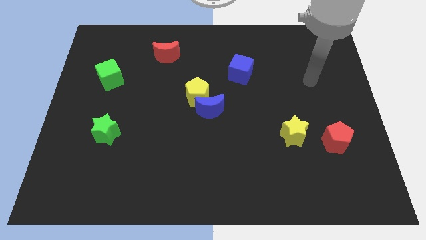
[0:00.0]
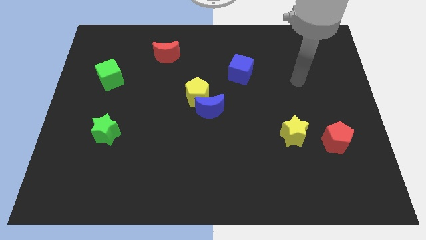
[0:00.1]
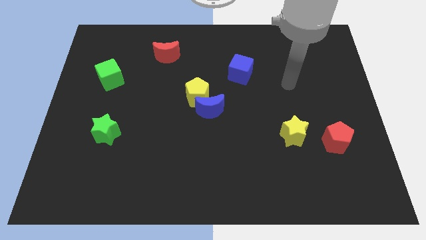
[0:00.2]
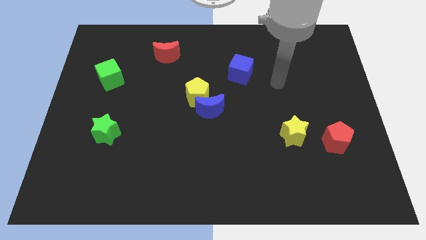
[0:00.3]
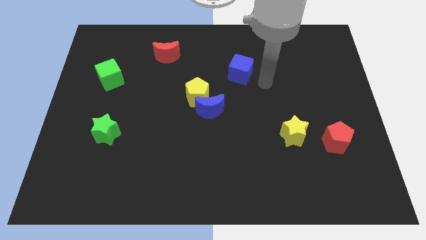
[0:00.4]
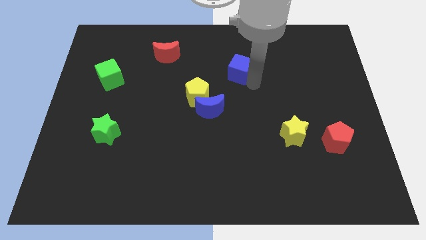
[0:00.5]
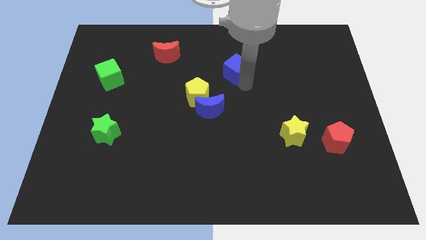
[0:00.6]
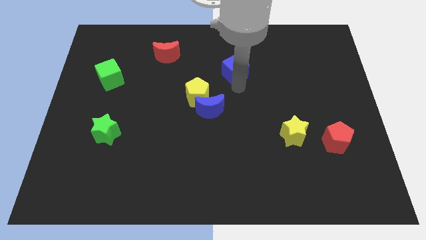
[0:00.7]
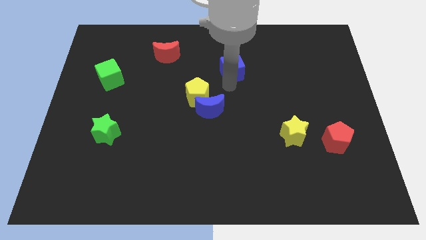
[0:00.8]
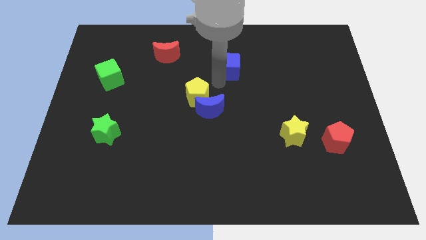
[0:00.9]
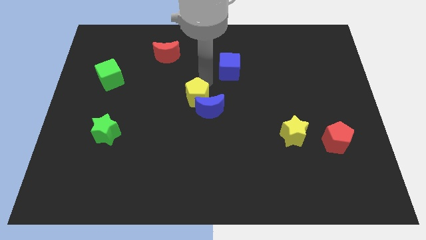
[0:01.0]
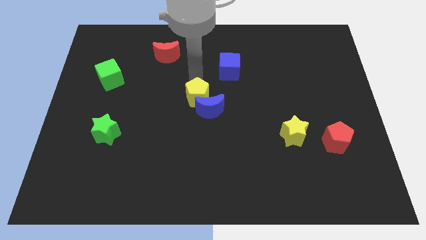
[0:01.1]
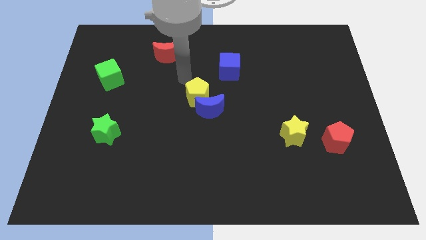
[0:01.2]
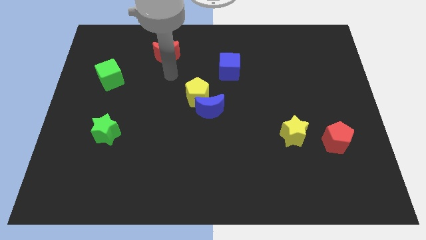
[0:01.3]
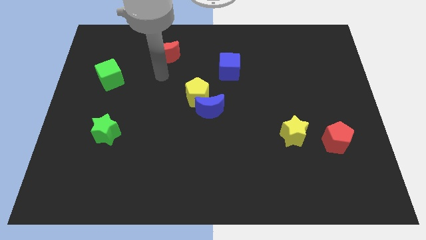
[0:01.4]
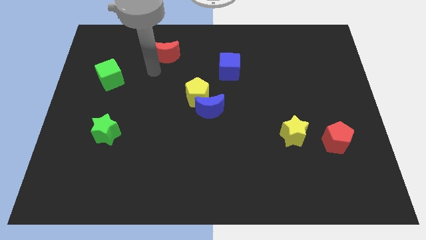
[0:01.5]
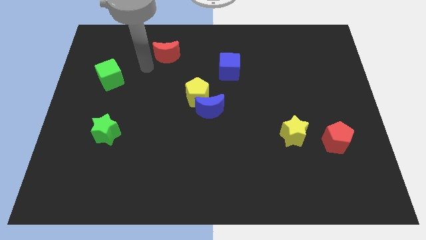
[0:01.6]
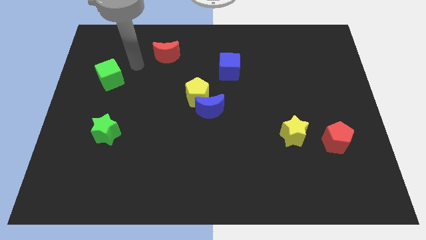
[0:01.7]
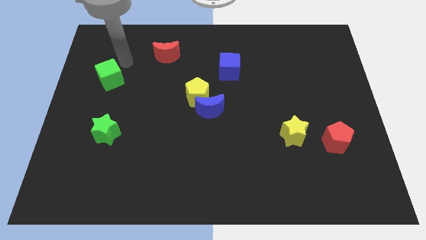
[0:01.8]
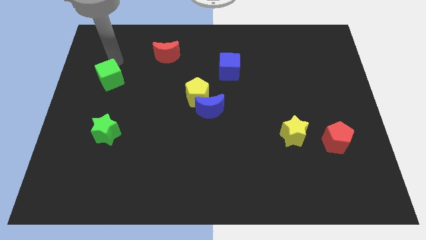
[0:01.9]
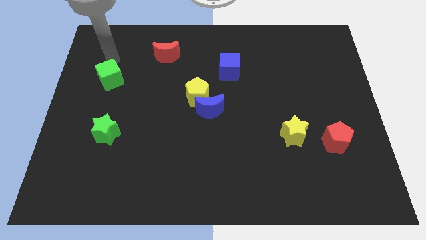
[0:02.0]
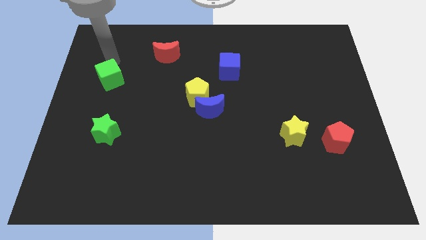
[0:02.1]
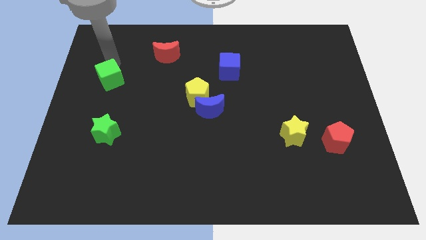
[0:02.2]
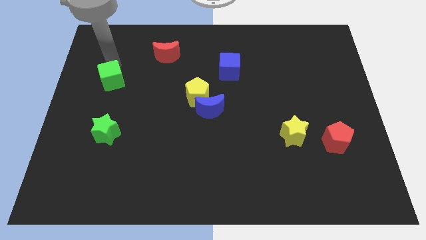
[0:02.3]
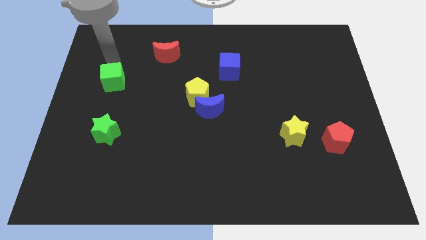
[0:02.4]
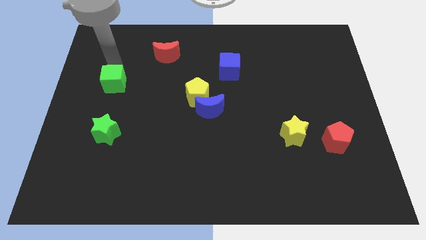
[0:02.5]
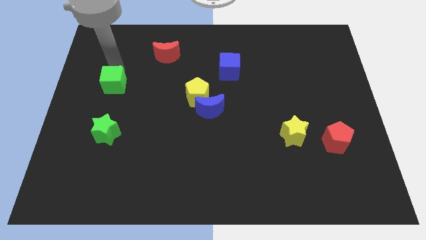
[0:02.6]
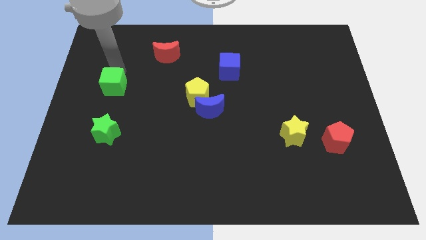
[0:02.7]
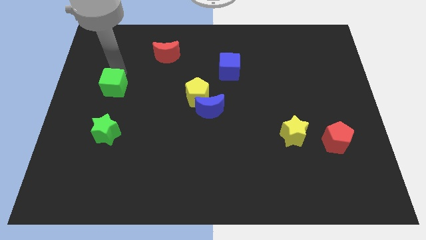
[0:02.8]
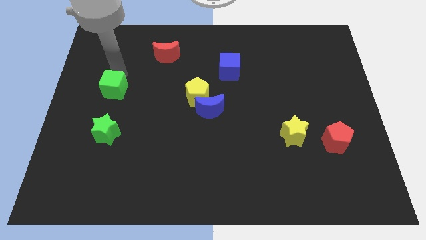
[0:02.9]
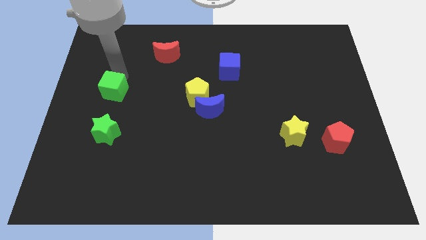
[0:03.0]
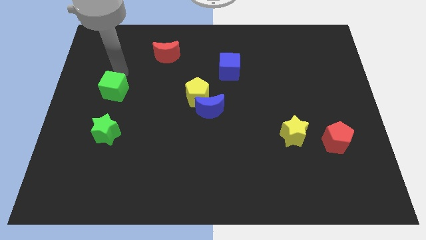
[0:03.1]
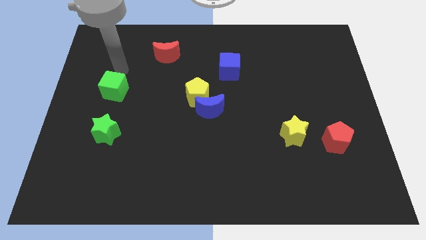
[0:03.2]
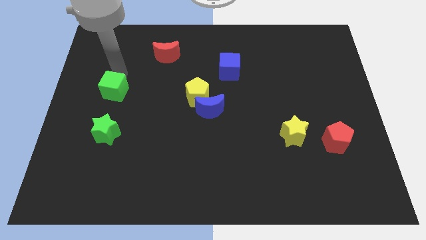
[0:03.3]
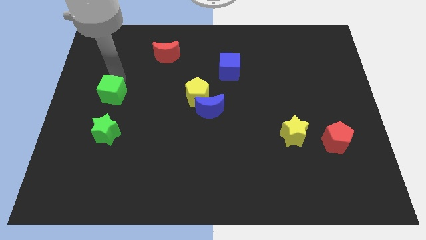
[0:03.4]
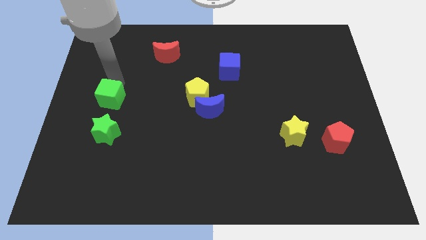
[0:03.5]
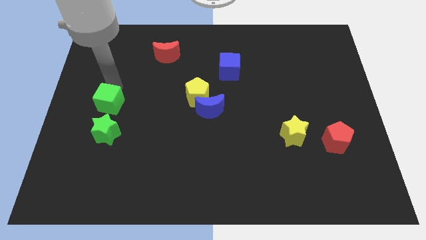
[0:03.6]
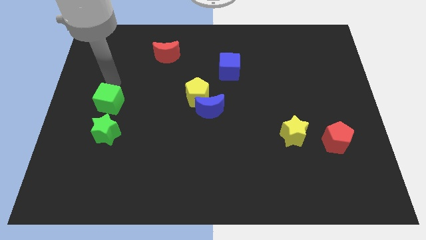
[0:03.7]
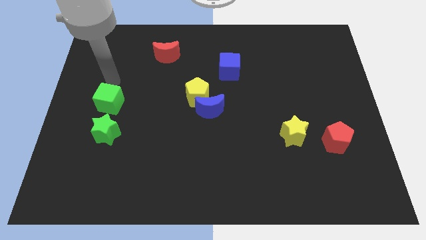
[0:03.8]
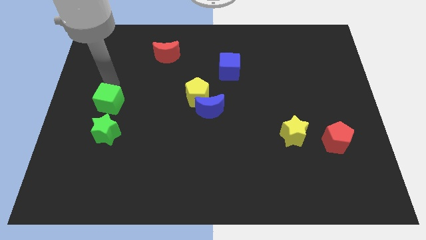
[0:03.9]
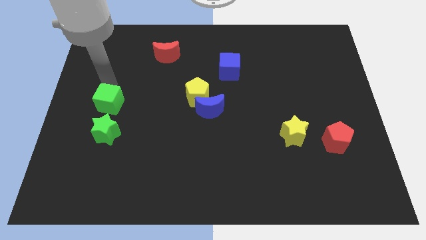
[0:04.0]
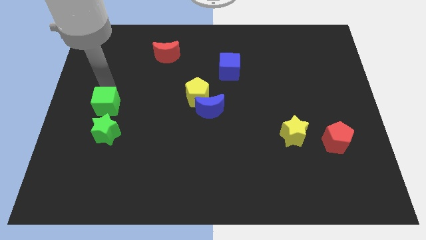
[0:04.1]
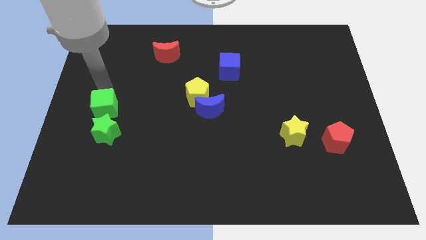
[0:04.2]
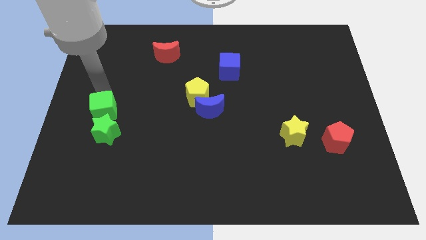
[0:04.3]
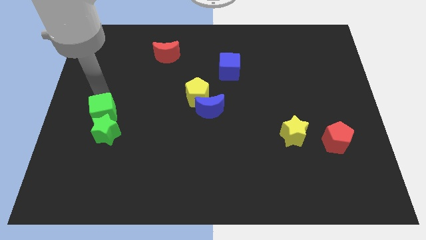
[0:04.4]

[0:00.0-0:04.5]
put the green cube to the green star

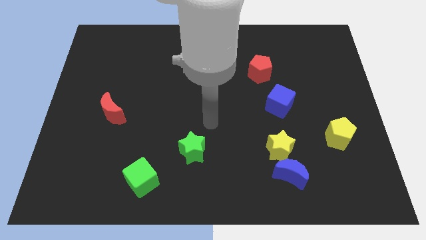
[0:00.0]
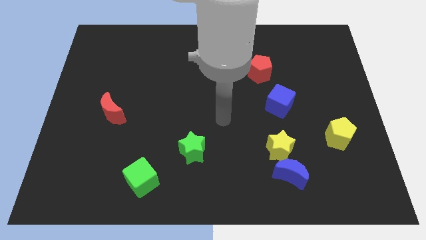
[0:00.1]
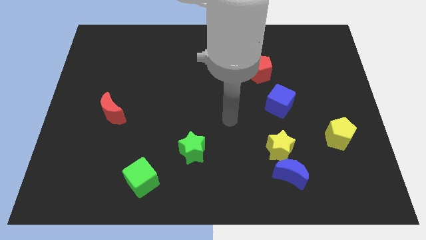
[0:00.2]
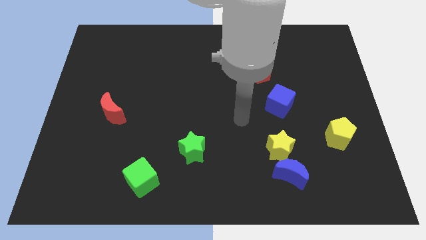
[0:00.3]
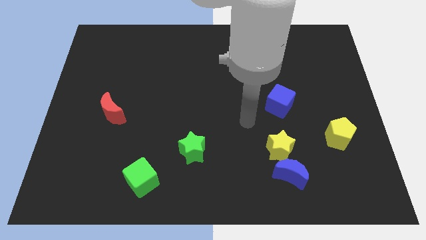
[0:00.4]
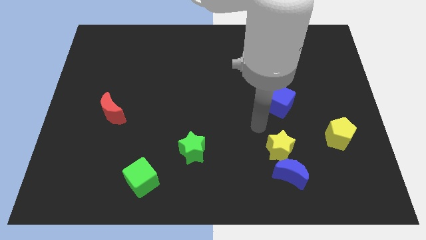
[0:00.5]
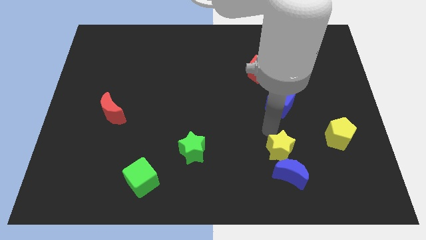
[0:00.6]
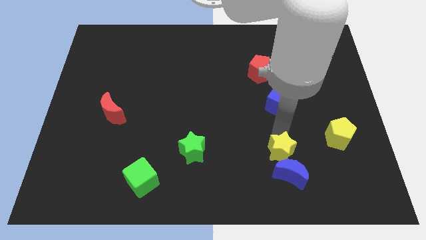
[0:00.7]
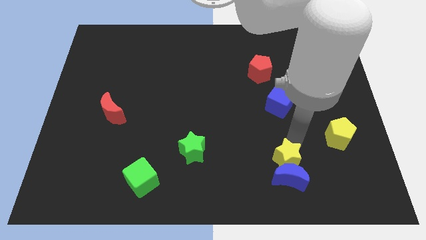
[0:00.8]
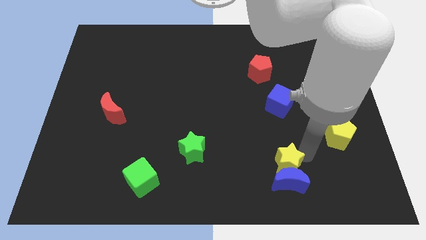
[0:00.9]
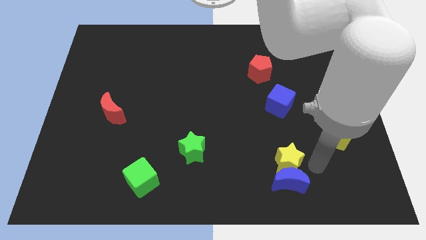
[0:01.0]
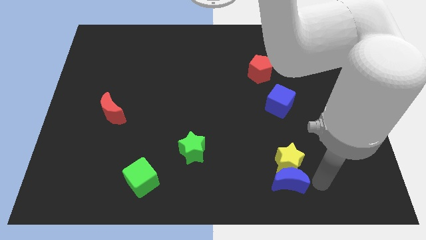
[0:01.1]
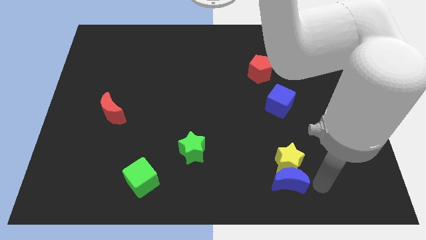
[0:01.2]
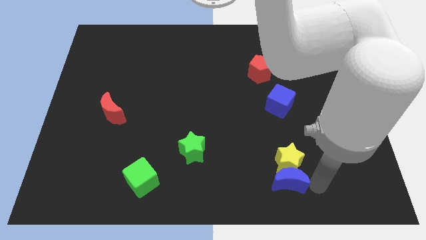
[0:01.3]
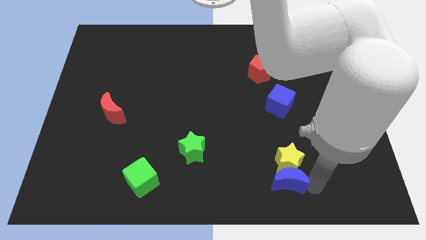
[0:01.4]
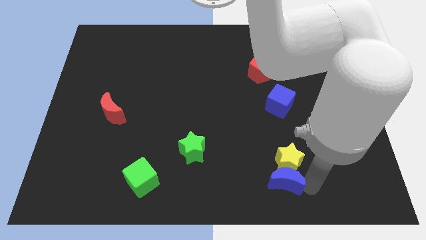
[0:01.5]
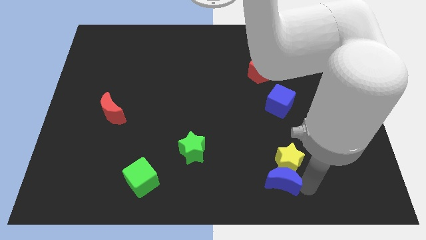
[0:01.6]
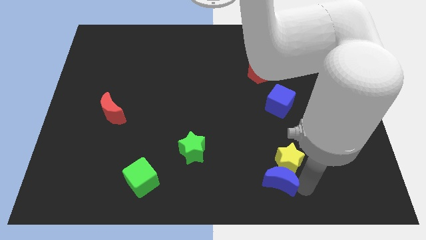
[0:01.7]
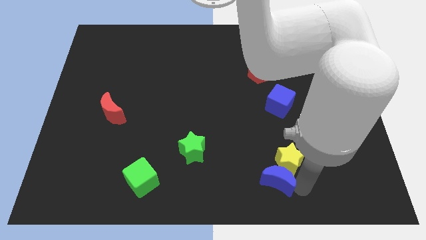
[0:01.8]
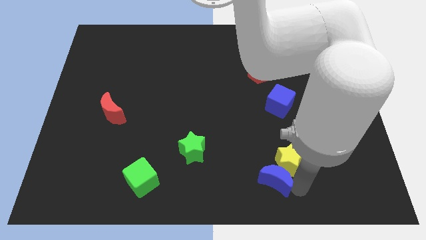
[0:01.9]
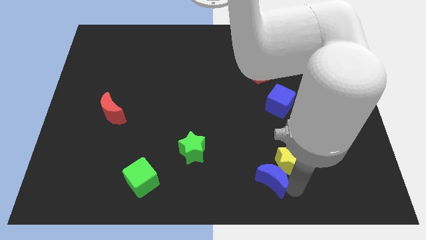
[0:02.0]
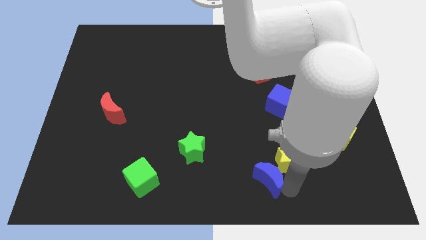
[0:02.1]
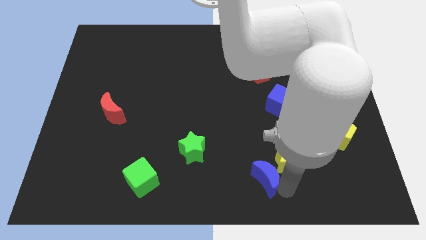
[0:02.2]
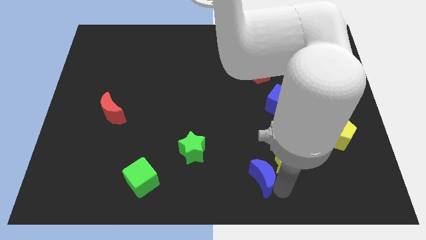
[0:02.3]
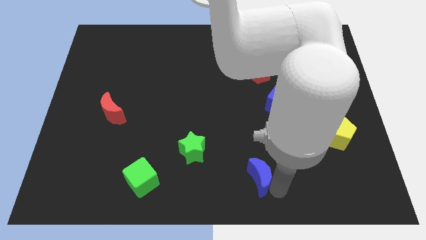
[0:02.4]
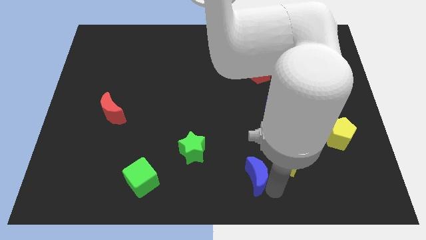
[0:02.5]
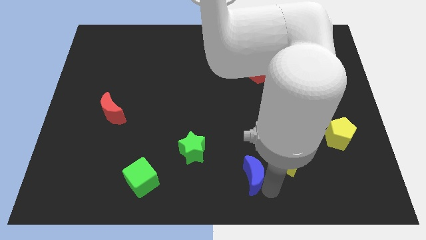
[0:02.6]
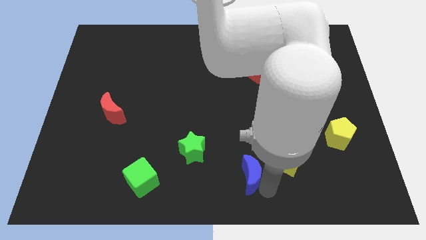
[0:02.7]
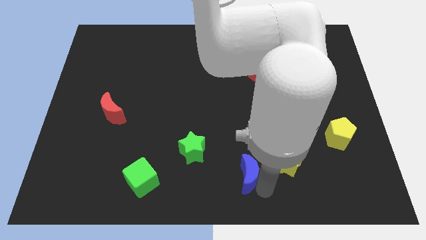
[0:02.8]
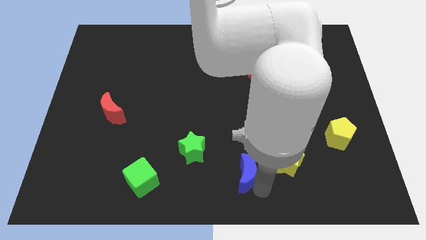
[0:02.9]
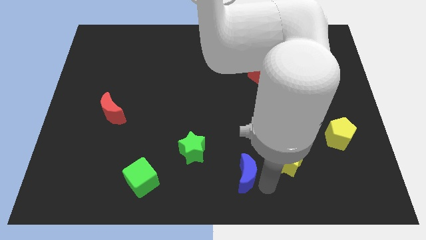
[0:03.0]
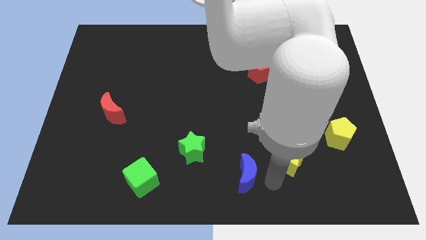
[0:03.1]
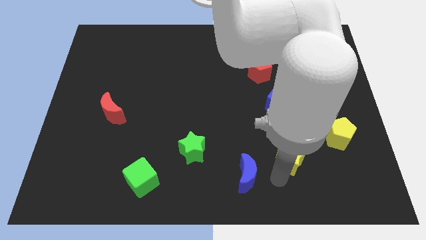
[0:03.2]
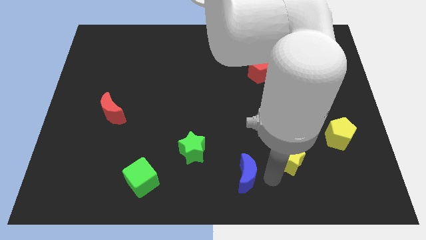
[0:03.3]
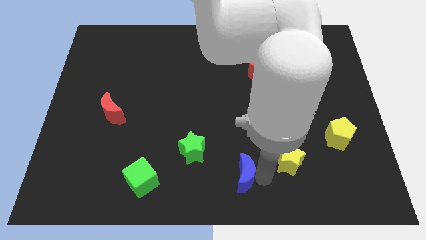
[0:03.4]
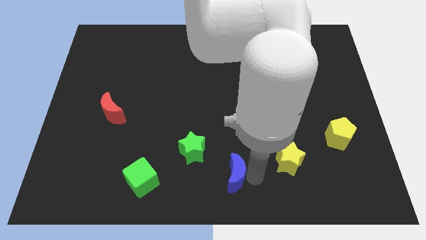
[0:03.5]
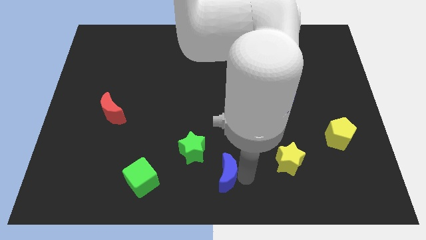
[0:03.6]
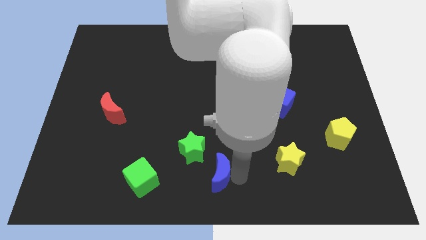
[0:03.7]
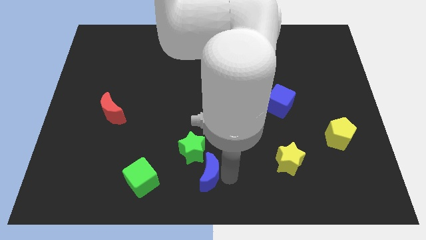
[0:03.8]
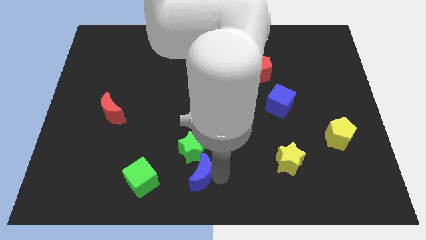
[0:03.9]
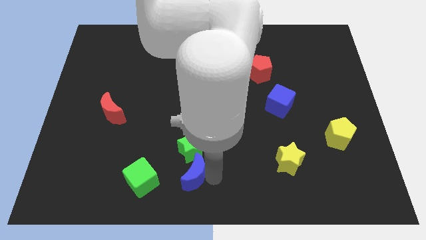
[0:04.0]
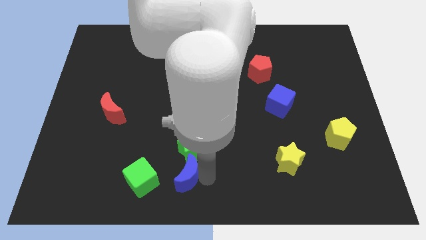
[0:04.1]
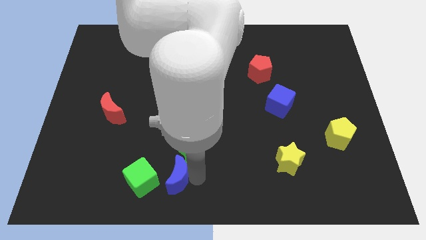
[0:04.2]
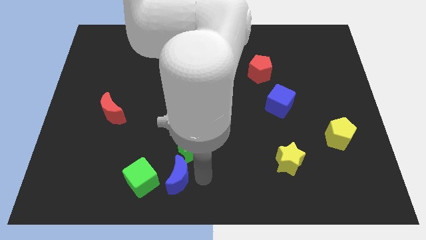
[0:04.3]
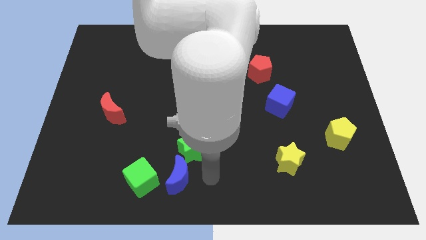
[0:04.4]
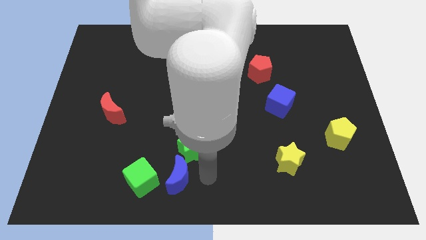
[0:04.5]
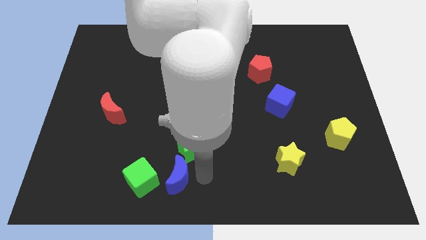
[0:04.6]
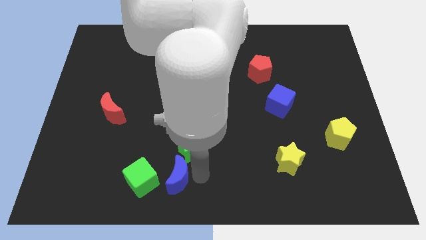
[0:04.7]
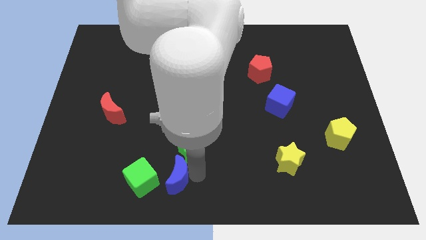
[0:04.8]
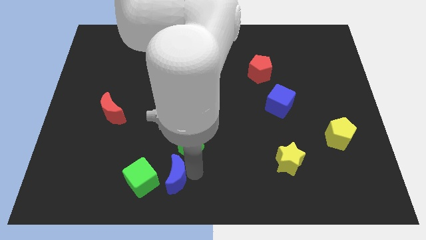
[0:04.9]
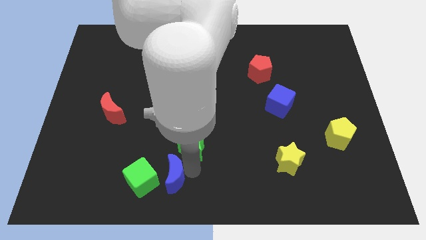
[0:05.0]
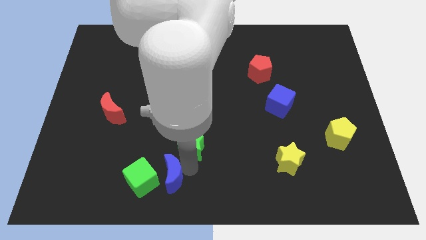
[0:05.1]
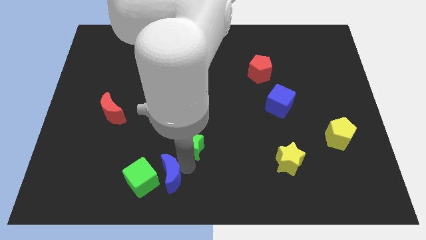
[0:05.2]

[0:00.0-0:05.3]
move the blue moon to the green cube
